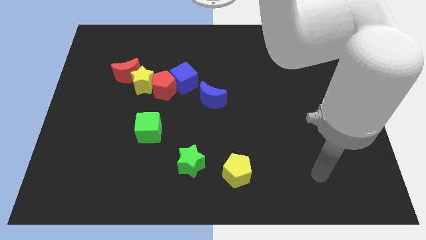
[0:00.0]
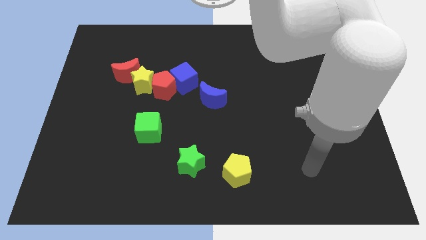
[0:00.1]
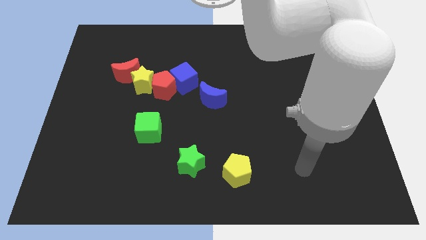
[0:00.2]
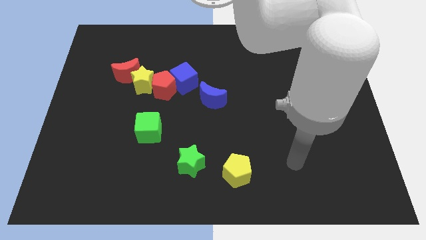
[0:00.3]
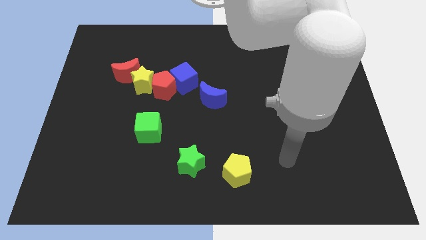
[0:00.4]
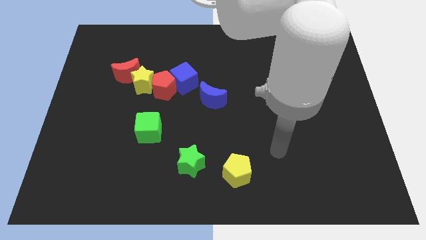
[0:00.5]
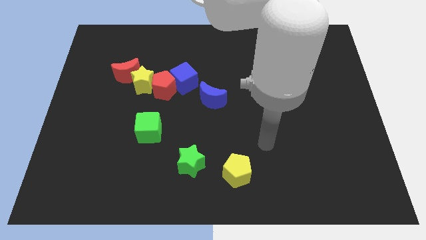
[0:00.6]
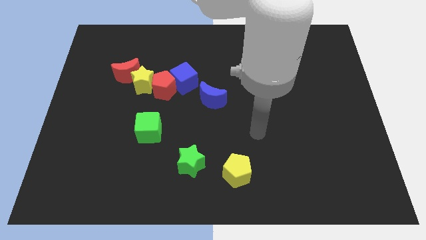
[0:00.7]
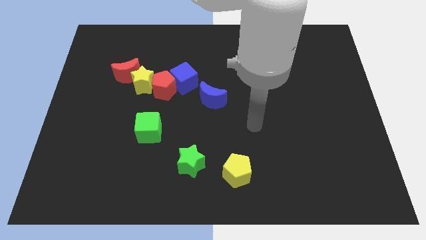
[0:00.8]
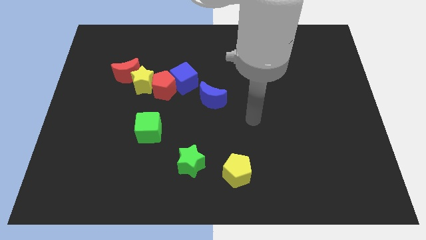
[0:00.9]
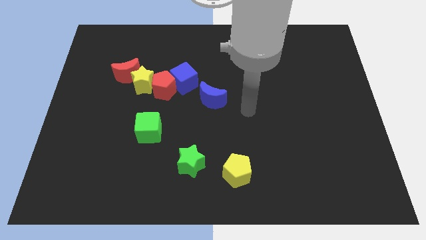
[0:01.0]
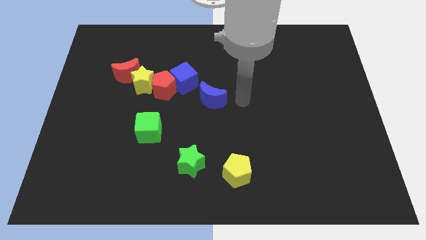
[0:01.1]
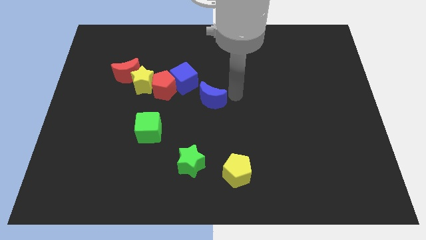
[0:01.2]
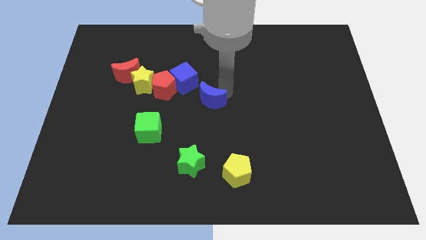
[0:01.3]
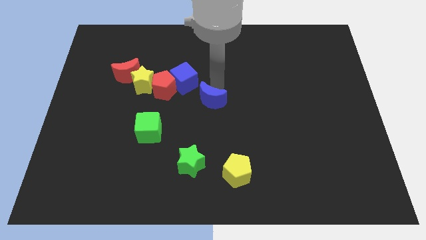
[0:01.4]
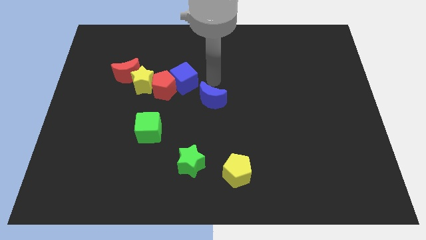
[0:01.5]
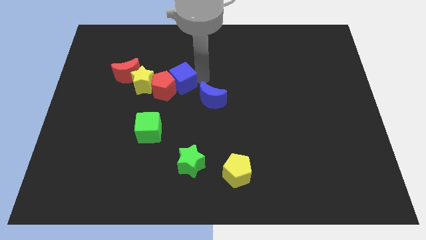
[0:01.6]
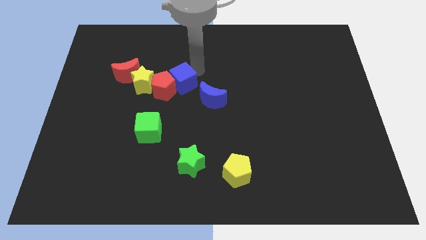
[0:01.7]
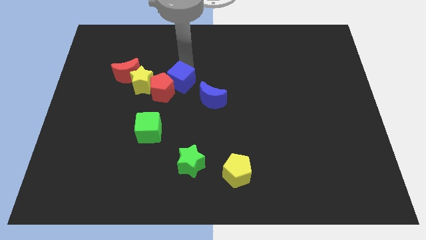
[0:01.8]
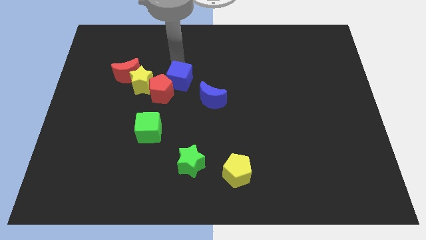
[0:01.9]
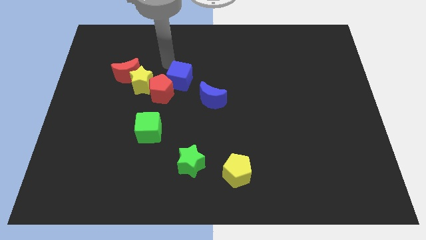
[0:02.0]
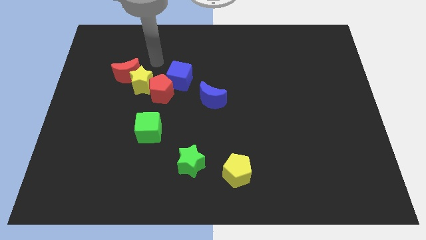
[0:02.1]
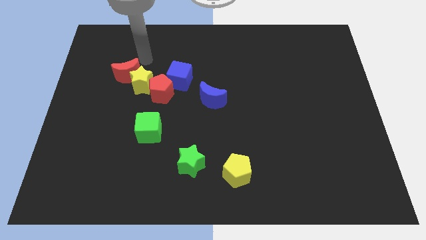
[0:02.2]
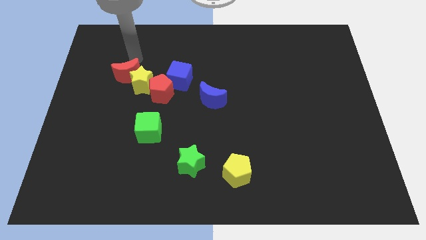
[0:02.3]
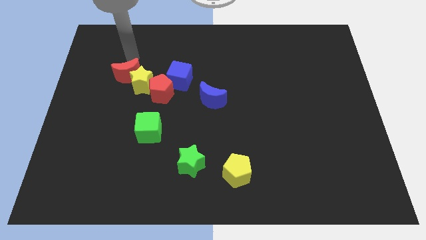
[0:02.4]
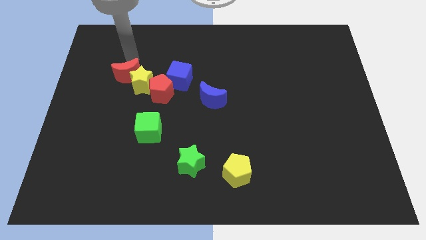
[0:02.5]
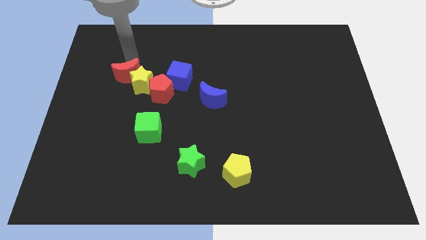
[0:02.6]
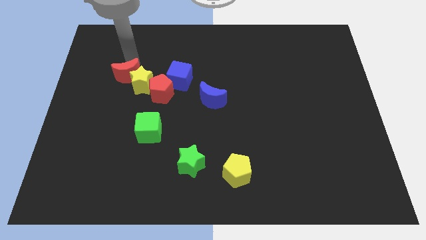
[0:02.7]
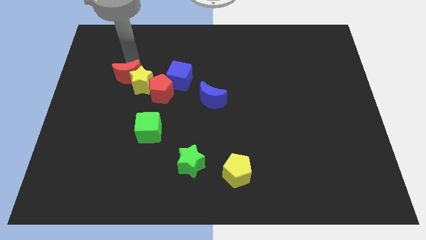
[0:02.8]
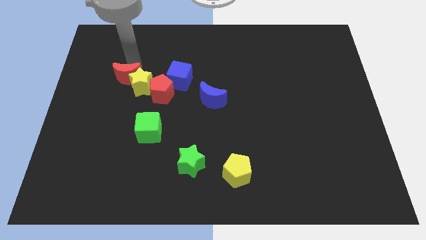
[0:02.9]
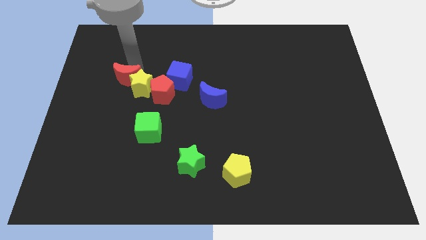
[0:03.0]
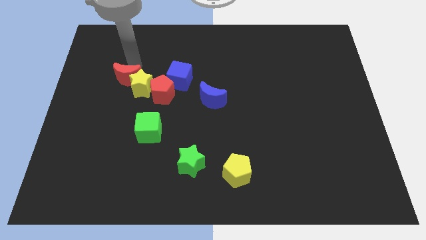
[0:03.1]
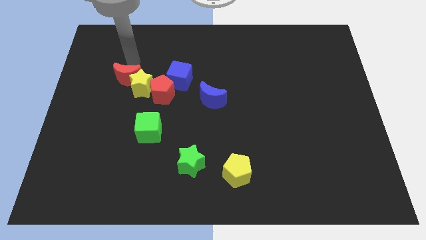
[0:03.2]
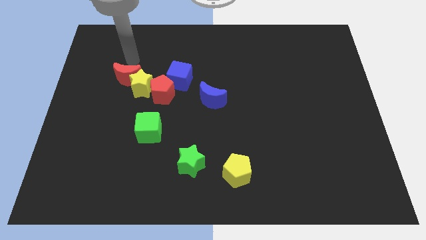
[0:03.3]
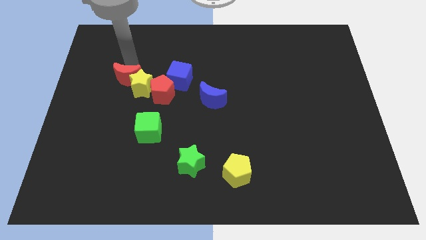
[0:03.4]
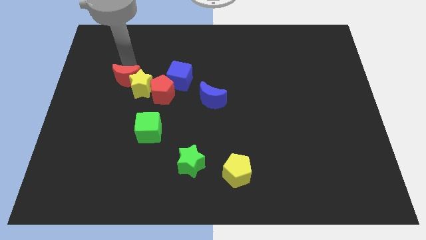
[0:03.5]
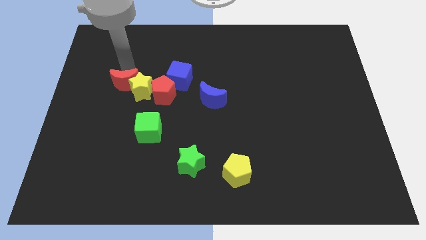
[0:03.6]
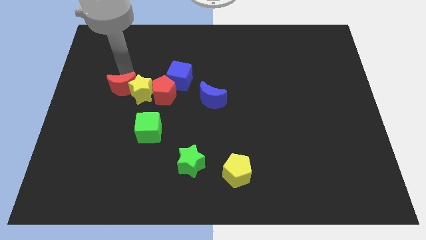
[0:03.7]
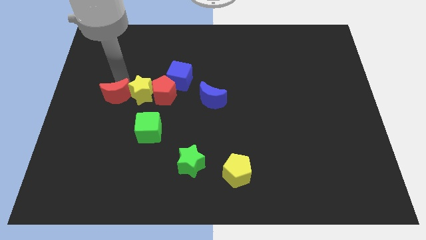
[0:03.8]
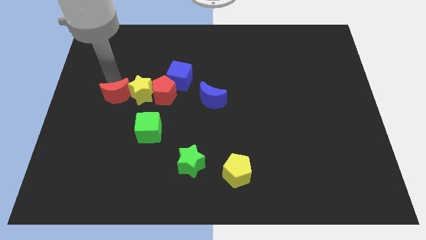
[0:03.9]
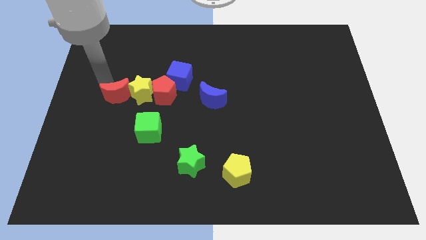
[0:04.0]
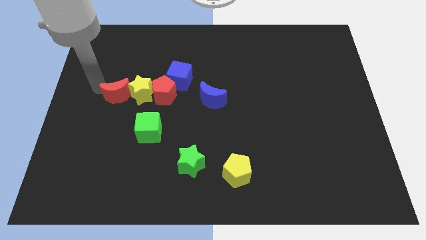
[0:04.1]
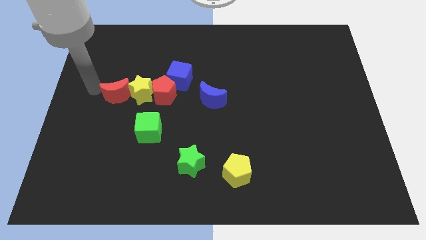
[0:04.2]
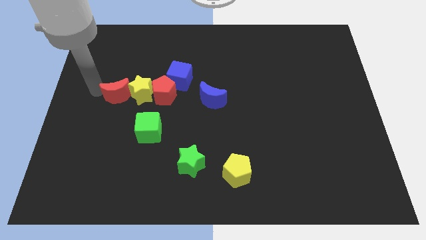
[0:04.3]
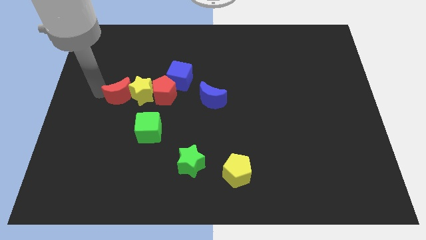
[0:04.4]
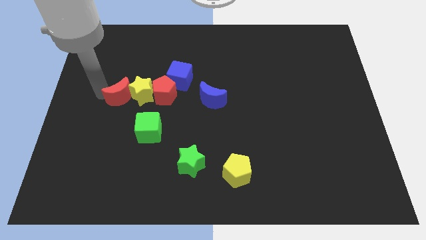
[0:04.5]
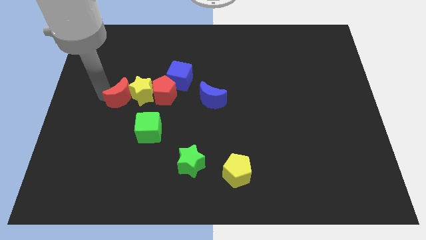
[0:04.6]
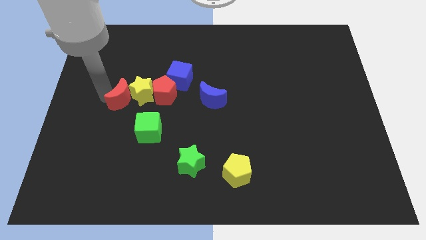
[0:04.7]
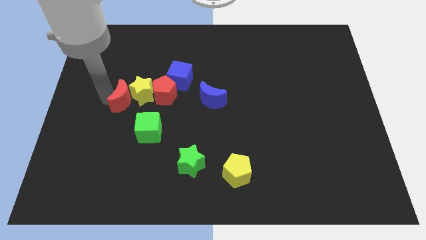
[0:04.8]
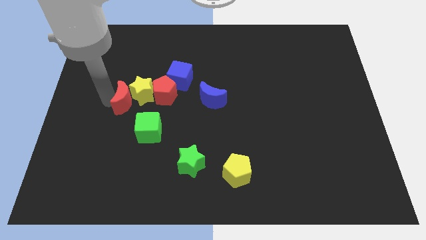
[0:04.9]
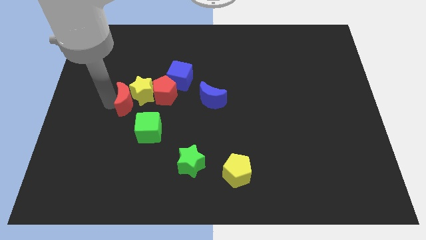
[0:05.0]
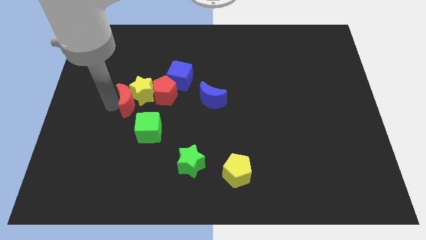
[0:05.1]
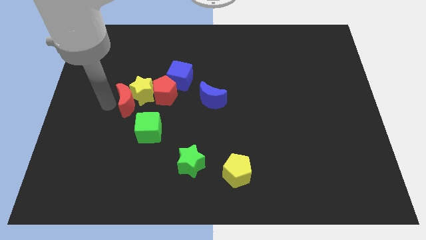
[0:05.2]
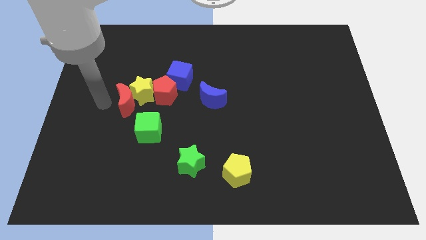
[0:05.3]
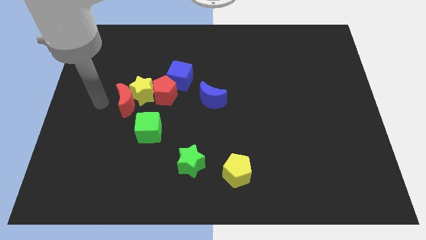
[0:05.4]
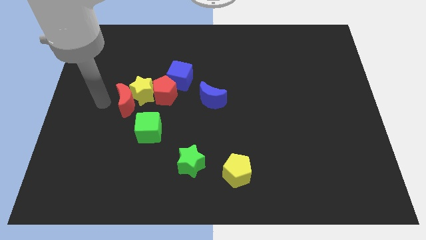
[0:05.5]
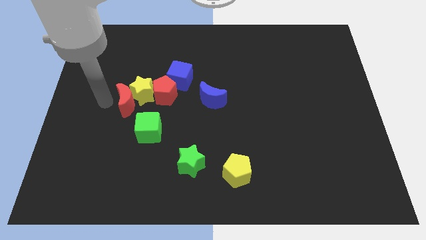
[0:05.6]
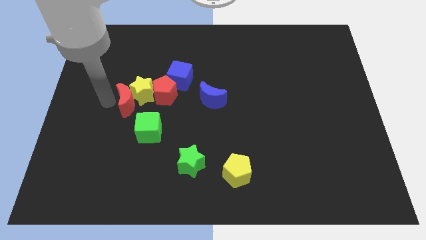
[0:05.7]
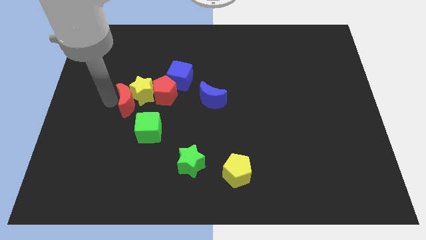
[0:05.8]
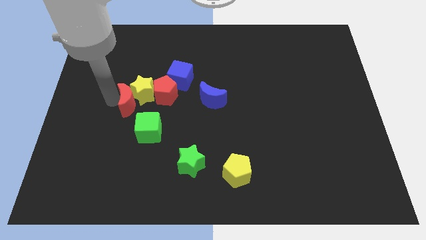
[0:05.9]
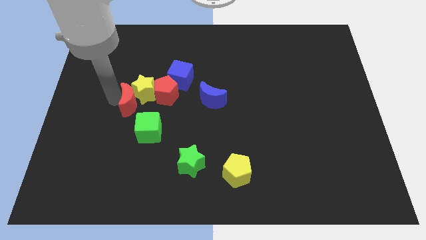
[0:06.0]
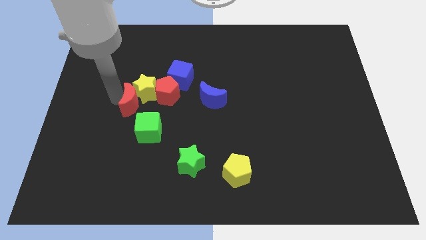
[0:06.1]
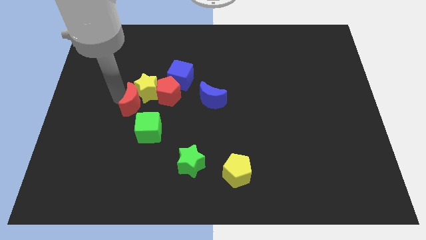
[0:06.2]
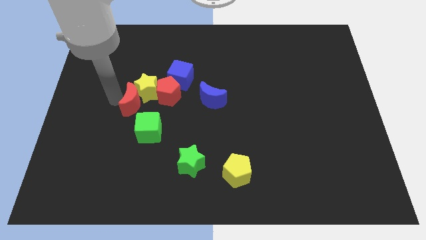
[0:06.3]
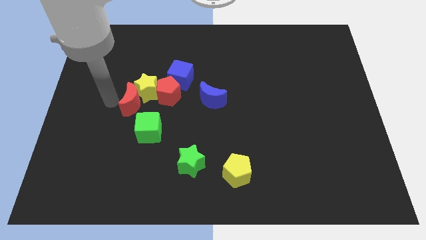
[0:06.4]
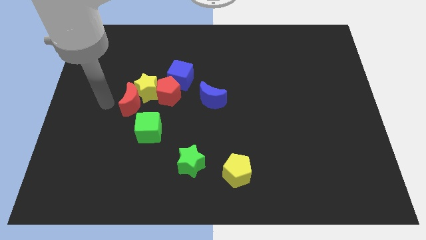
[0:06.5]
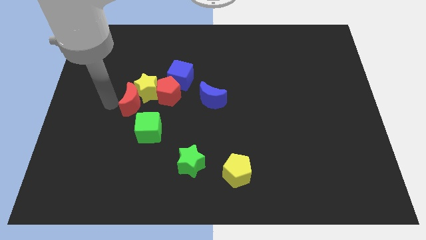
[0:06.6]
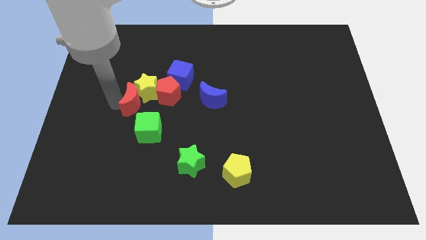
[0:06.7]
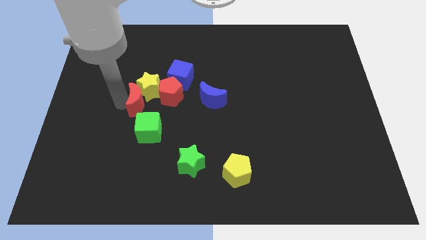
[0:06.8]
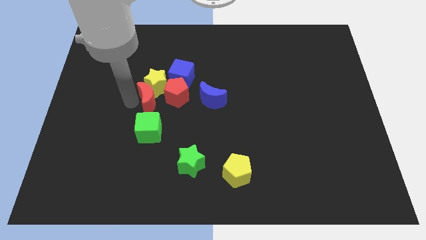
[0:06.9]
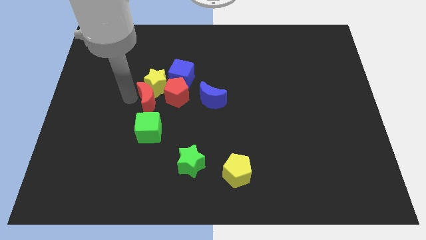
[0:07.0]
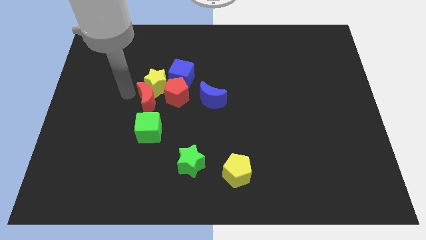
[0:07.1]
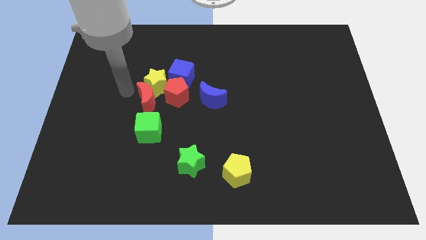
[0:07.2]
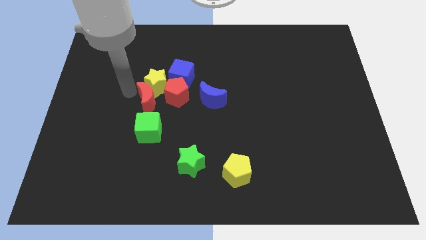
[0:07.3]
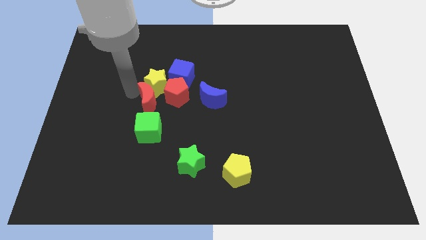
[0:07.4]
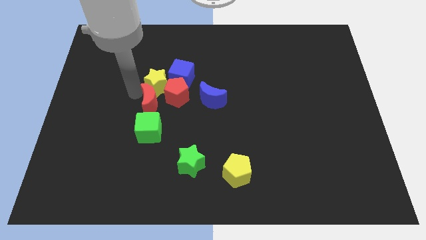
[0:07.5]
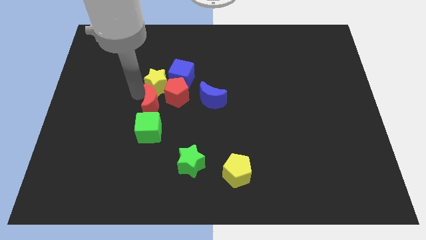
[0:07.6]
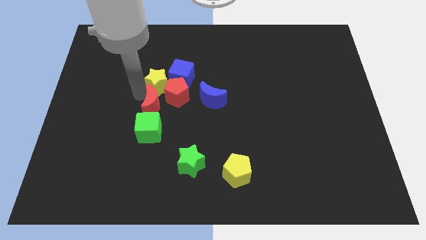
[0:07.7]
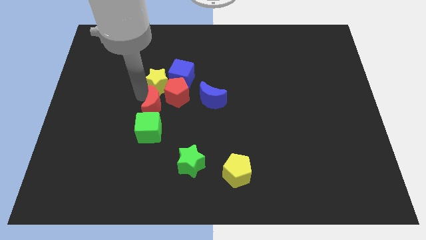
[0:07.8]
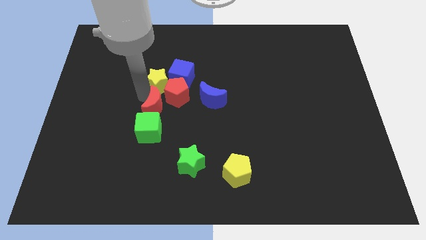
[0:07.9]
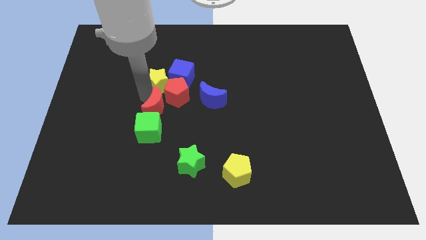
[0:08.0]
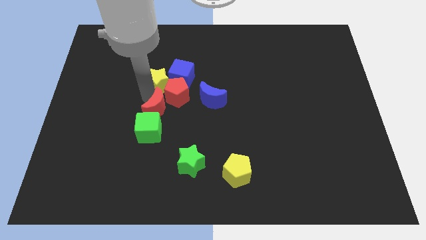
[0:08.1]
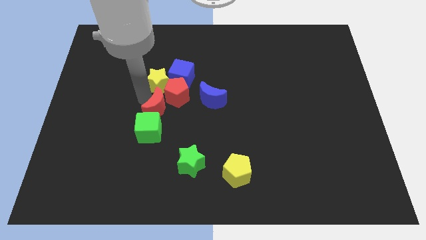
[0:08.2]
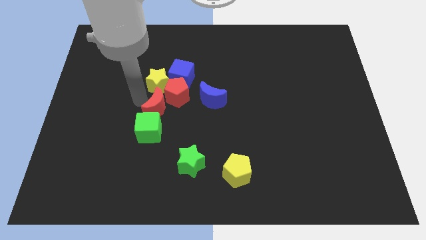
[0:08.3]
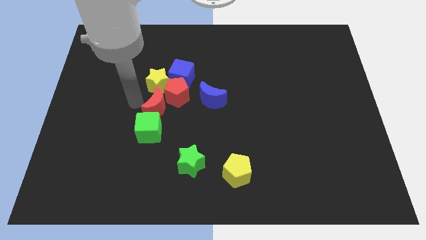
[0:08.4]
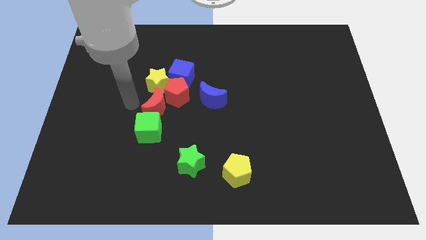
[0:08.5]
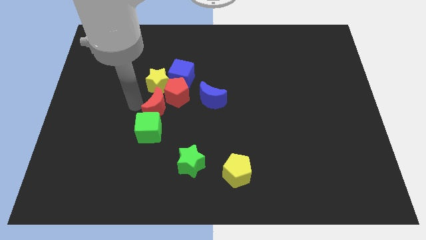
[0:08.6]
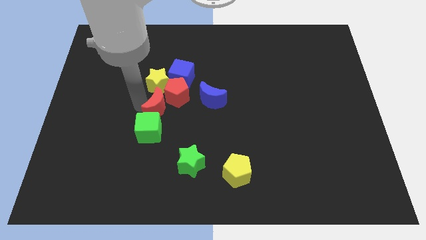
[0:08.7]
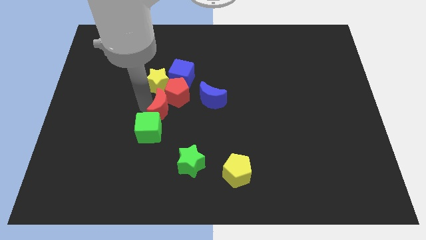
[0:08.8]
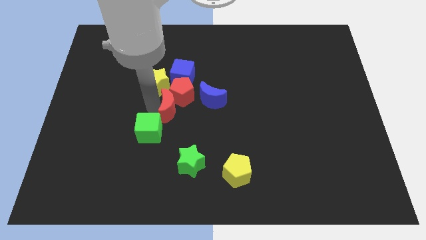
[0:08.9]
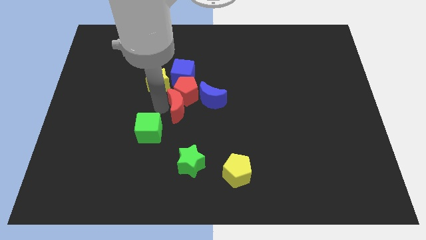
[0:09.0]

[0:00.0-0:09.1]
put the red moon to the bottom left of the blue moon
